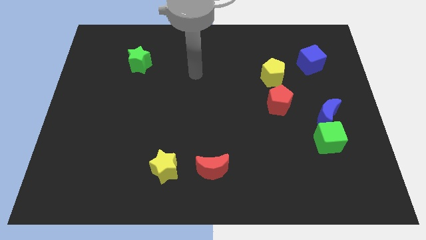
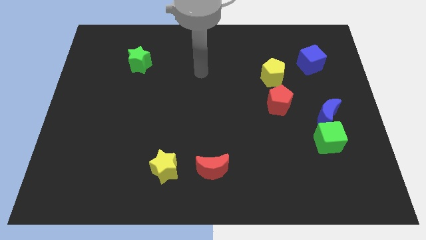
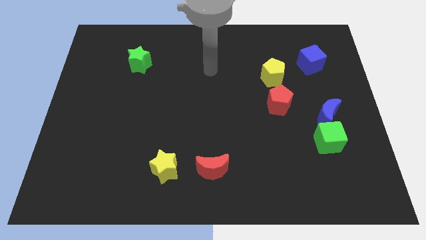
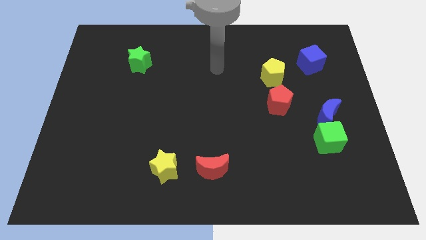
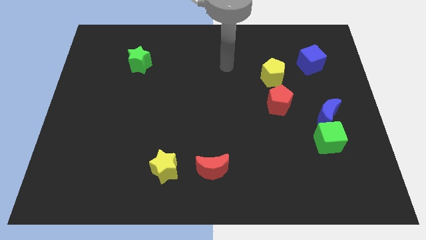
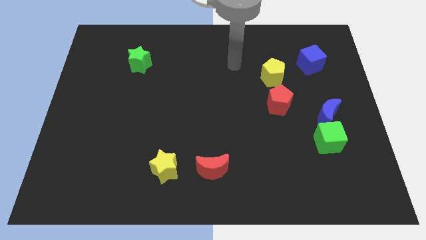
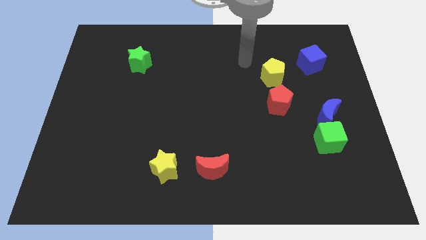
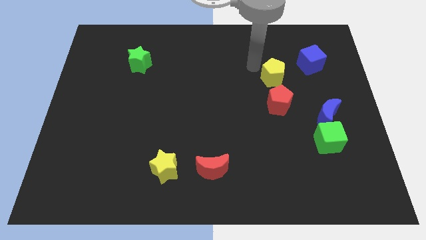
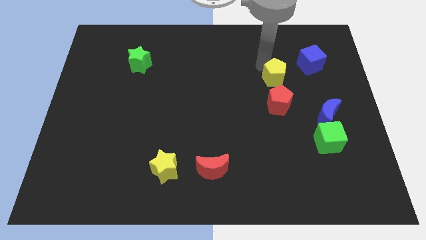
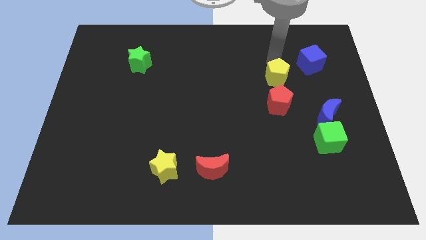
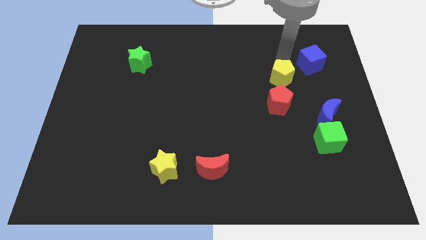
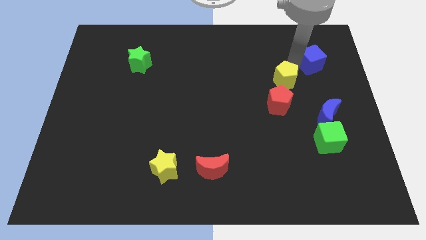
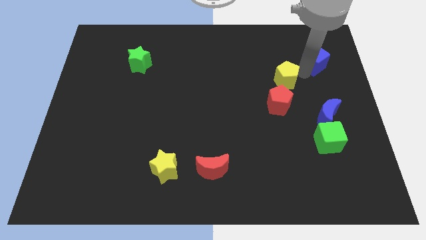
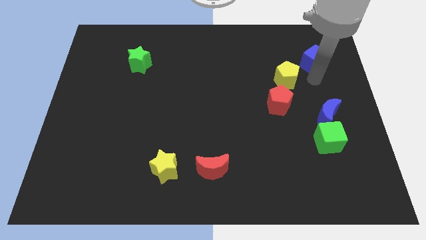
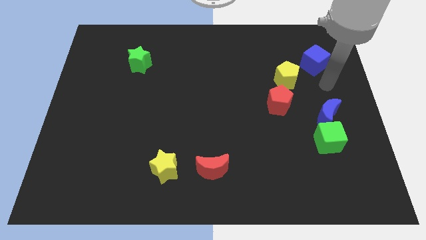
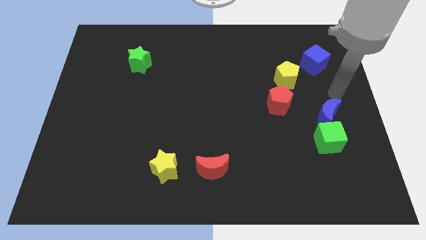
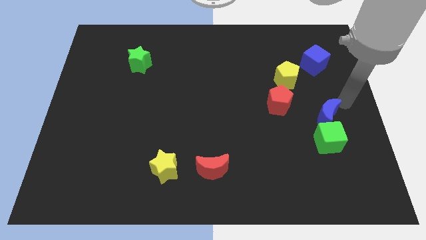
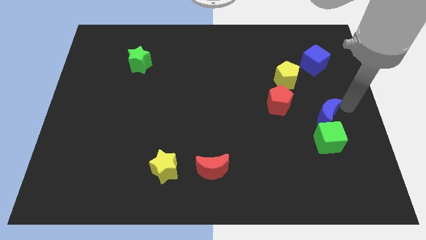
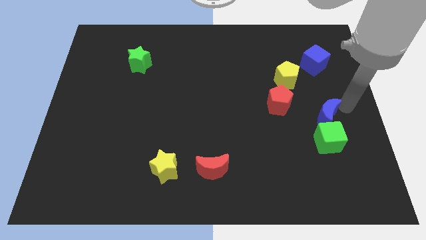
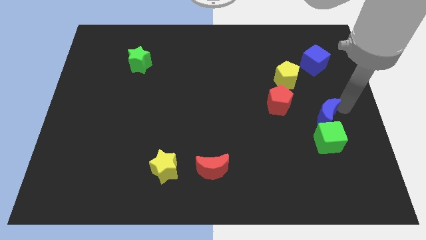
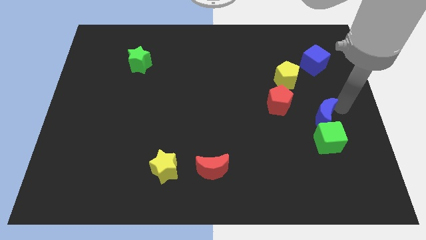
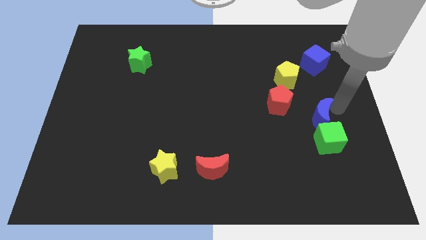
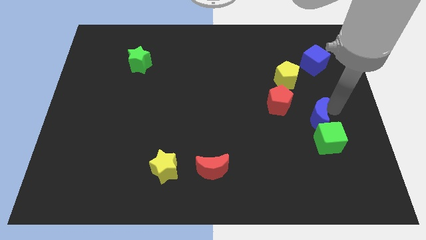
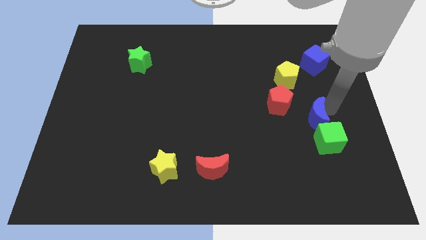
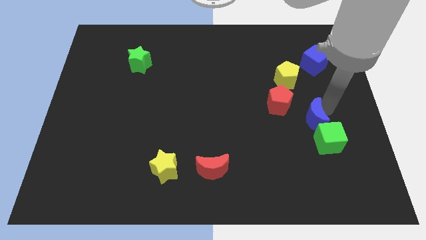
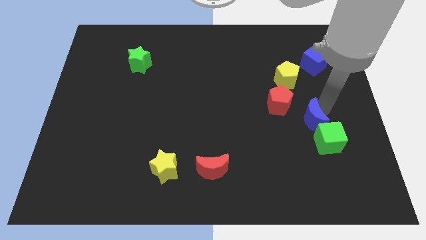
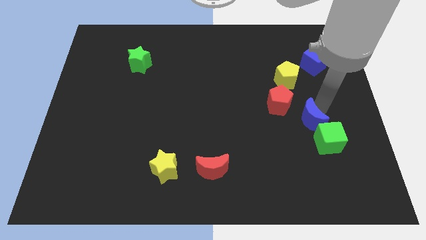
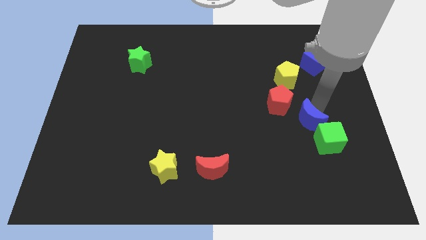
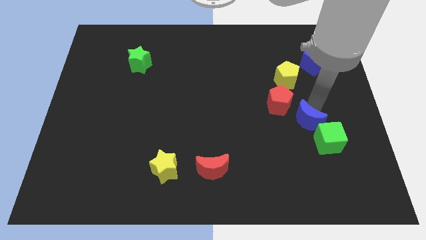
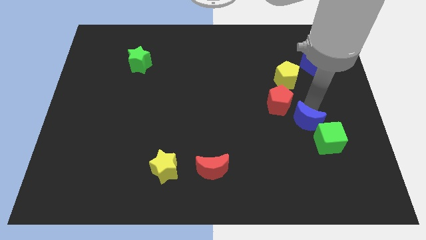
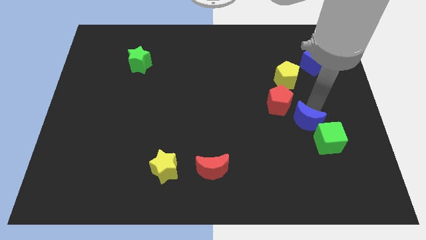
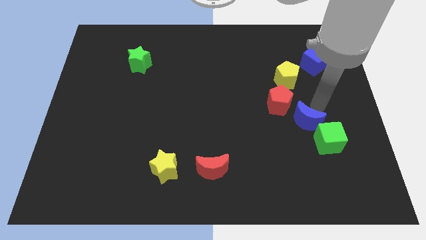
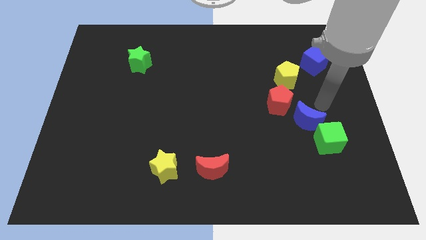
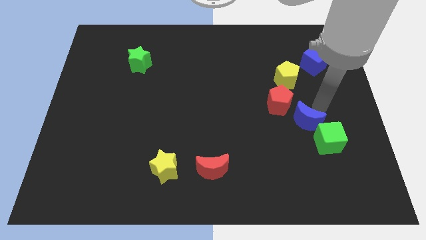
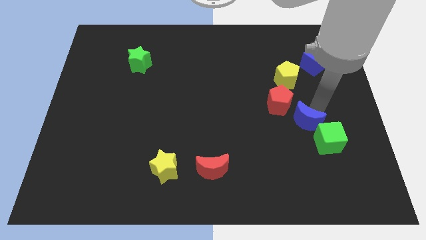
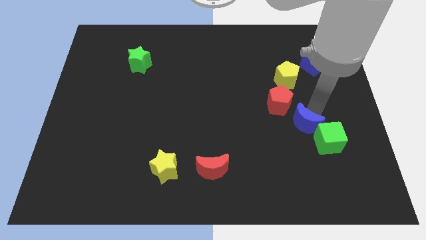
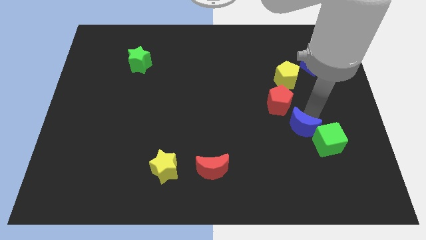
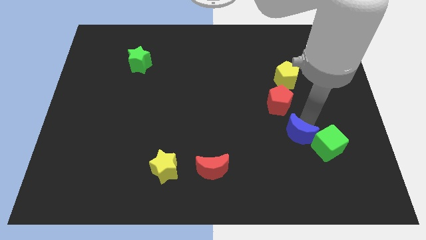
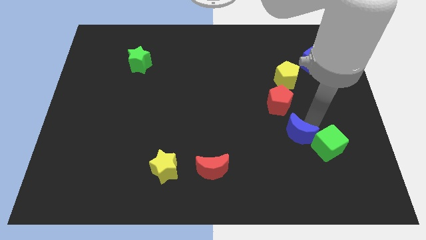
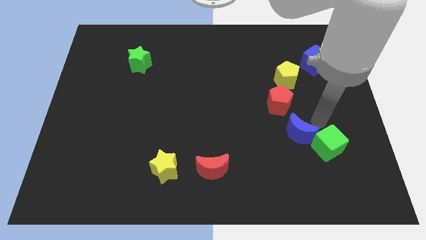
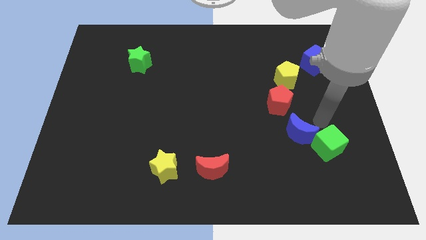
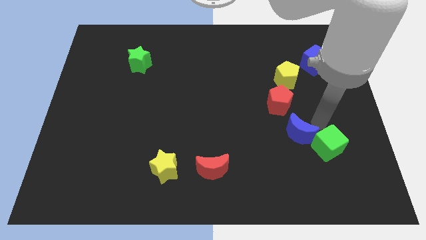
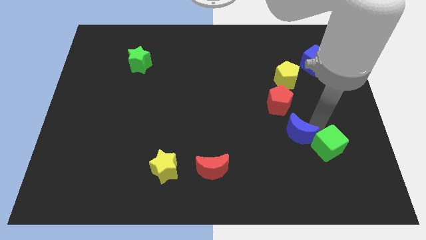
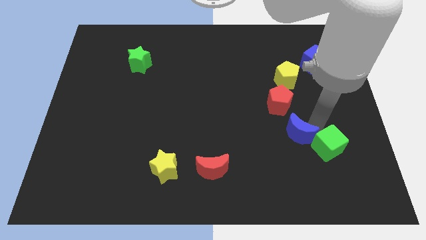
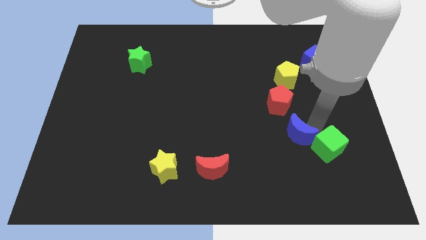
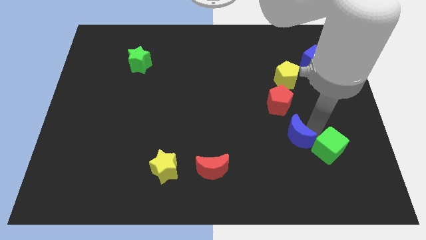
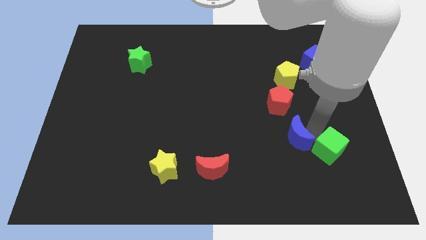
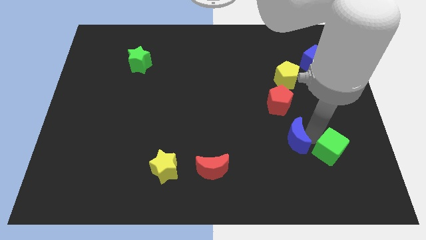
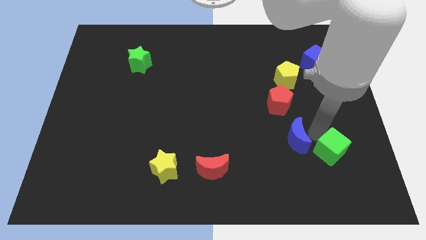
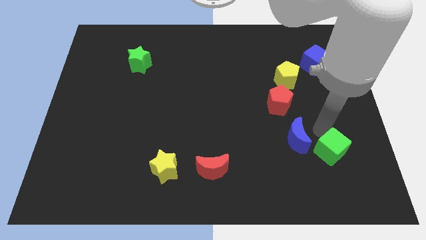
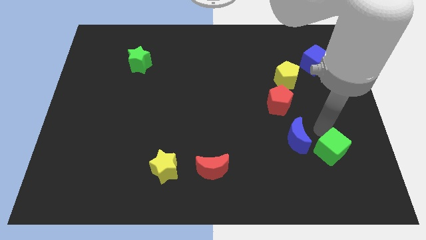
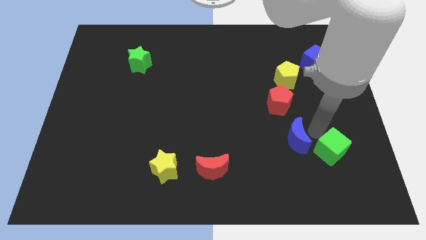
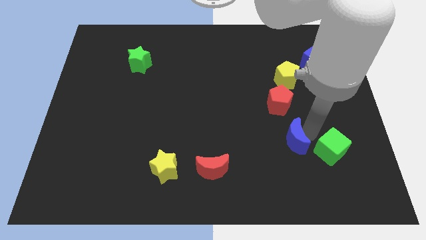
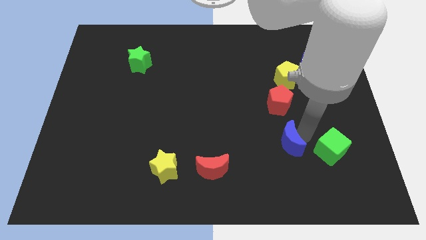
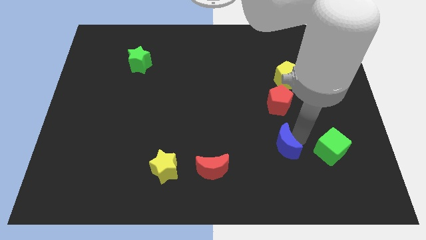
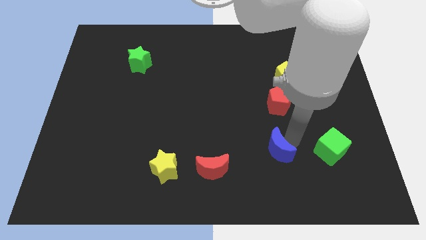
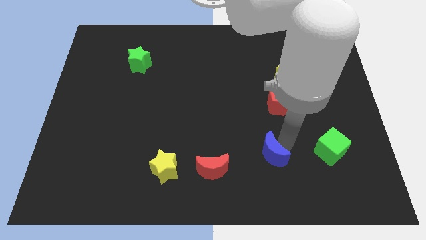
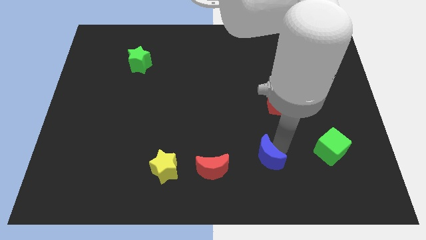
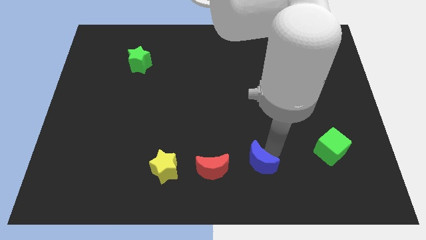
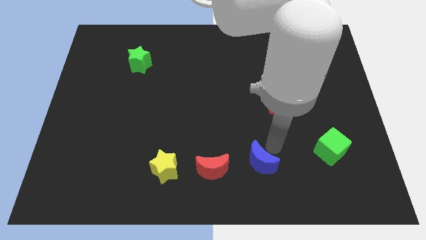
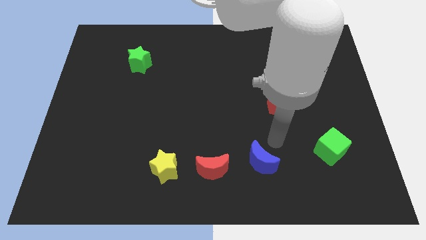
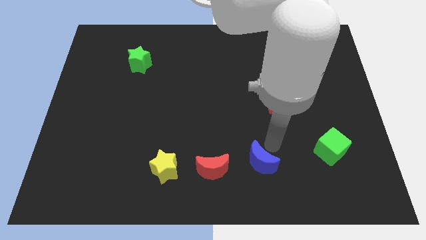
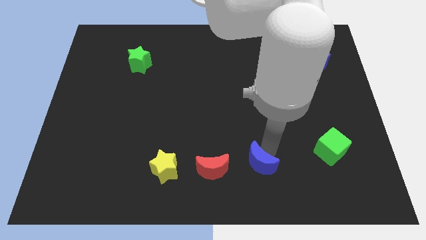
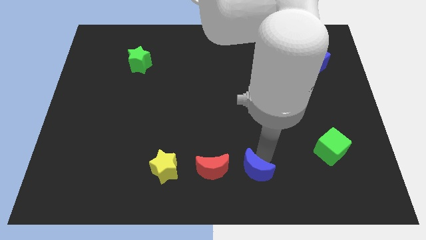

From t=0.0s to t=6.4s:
slide the blue moon to the bottom side
